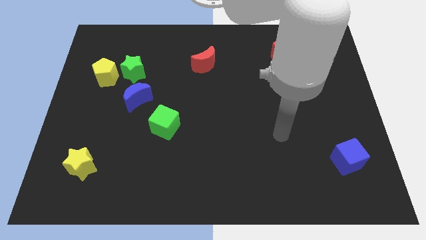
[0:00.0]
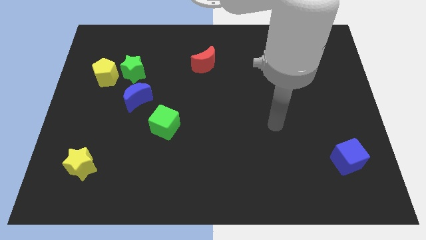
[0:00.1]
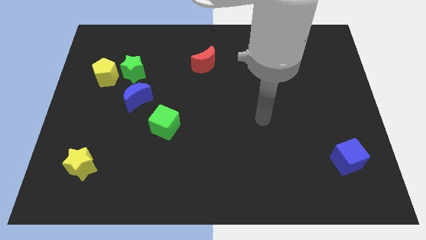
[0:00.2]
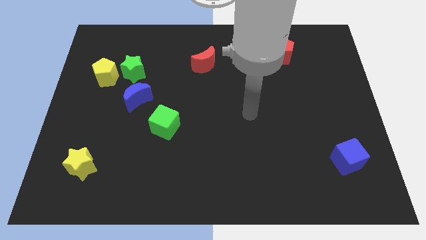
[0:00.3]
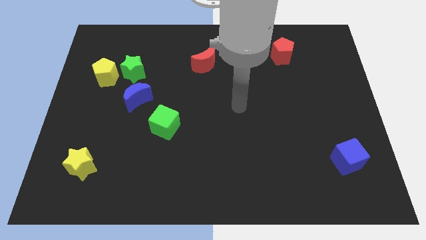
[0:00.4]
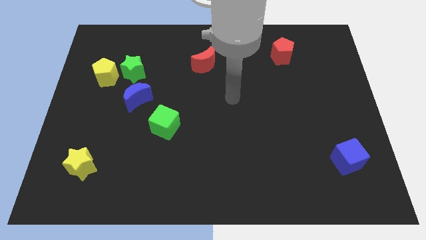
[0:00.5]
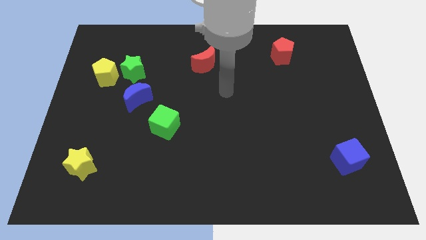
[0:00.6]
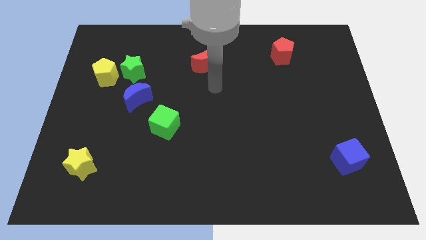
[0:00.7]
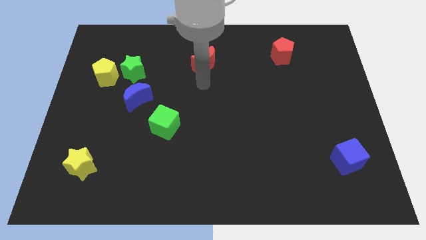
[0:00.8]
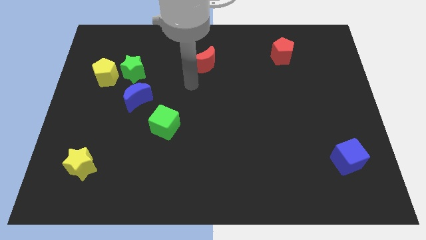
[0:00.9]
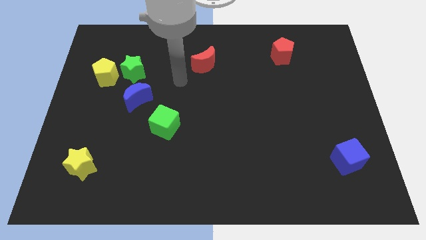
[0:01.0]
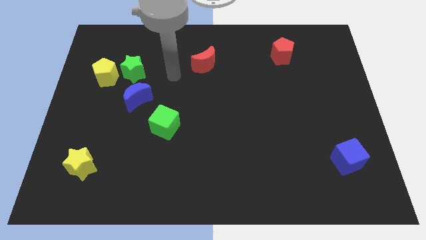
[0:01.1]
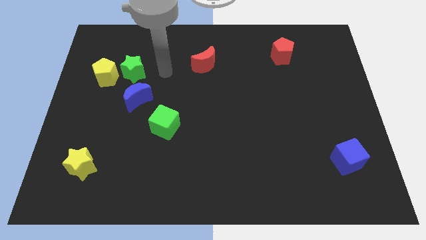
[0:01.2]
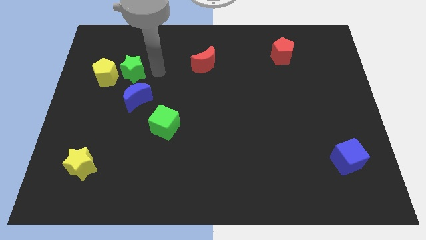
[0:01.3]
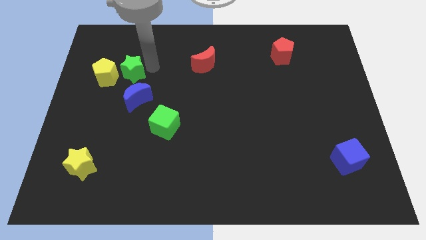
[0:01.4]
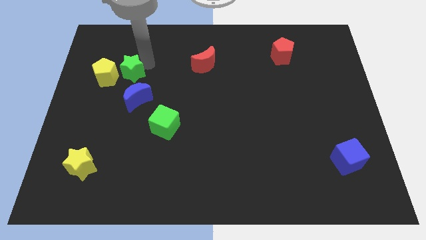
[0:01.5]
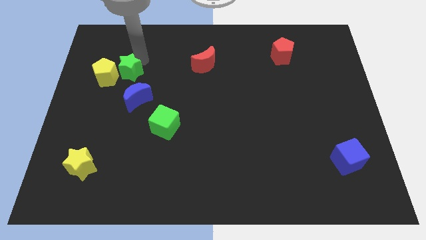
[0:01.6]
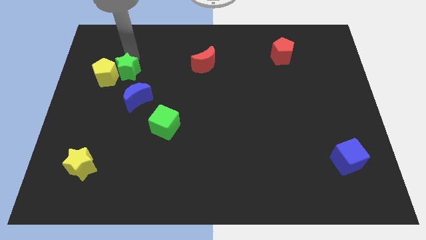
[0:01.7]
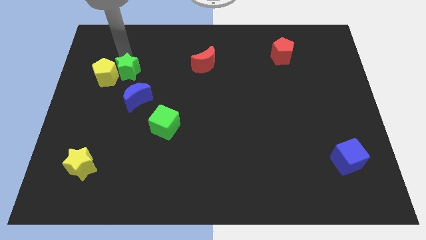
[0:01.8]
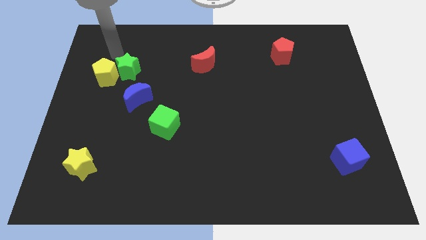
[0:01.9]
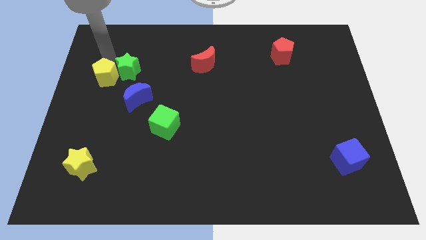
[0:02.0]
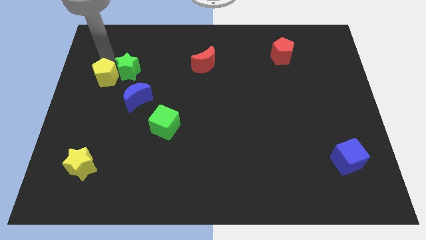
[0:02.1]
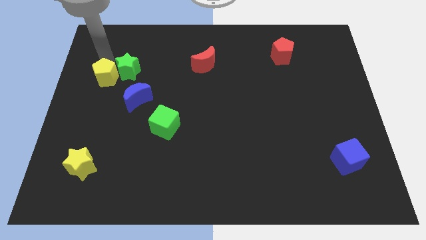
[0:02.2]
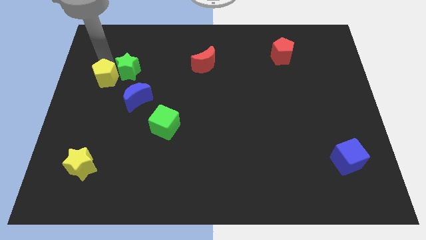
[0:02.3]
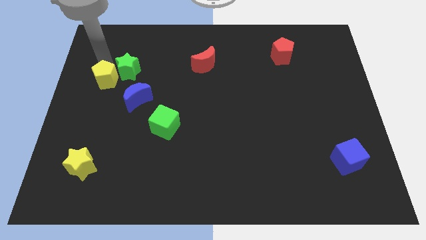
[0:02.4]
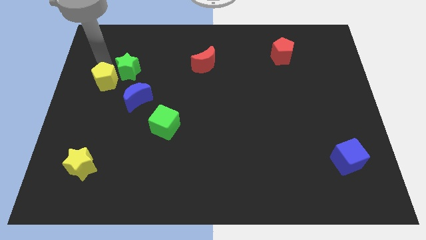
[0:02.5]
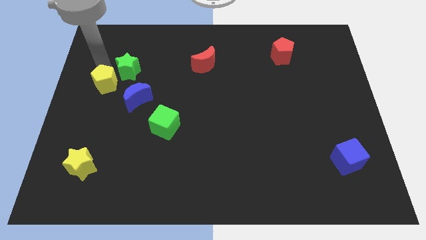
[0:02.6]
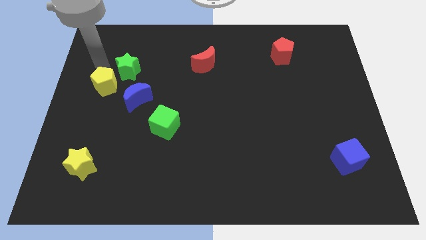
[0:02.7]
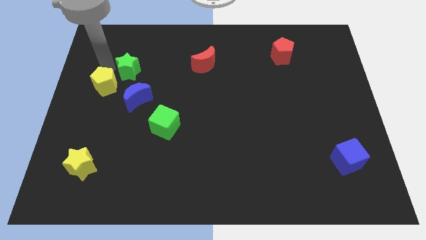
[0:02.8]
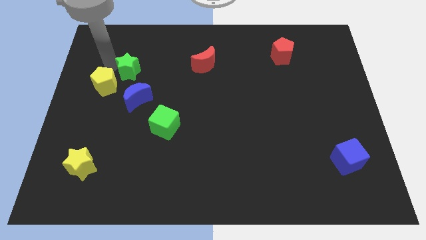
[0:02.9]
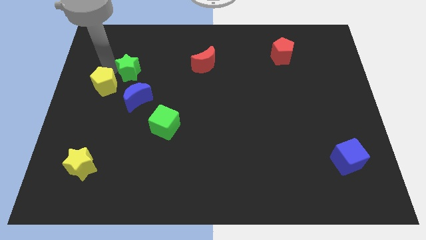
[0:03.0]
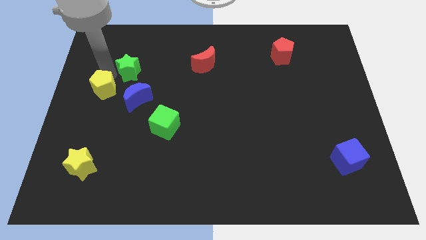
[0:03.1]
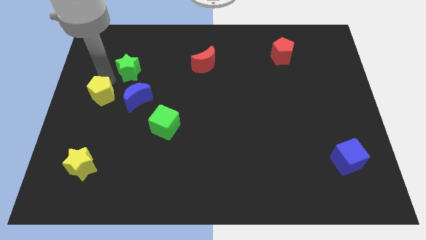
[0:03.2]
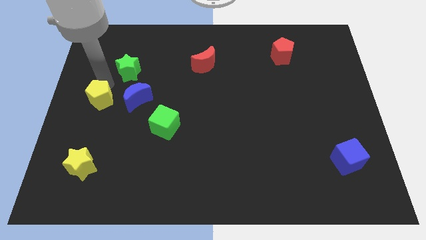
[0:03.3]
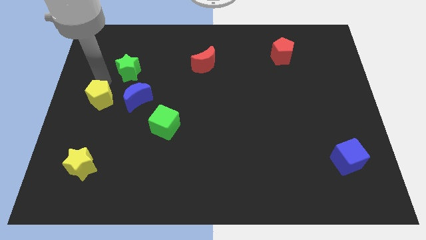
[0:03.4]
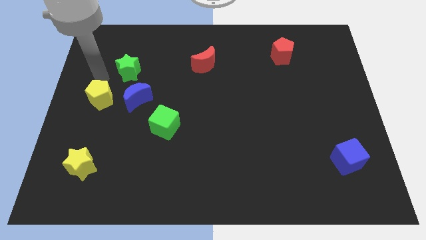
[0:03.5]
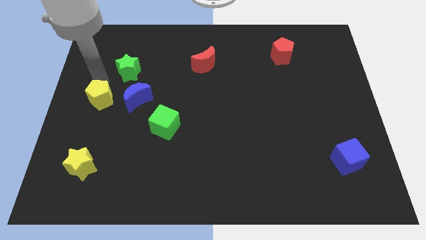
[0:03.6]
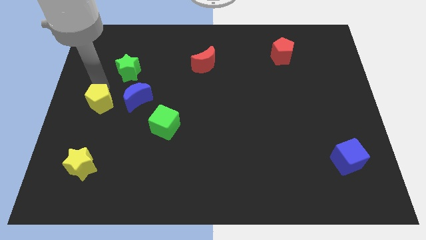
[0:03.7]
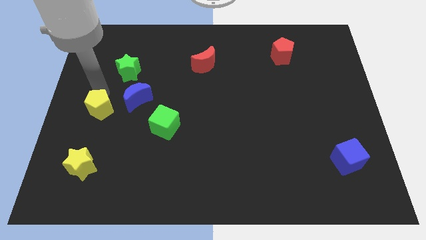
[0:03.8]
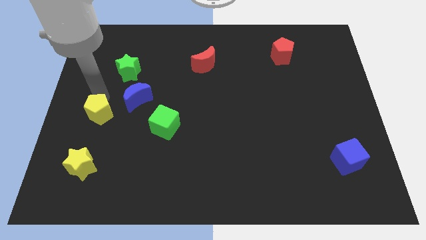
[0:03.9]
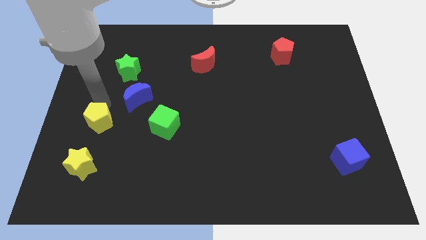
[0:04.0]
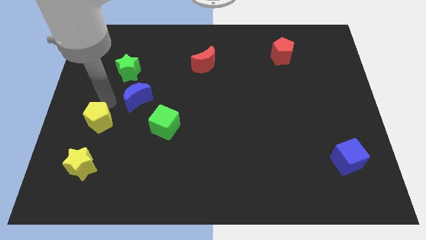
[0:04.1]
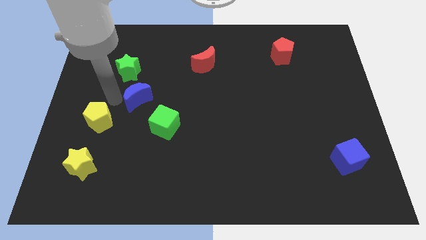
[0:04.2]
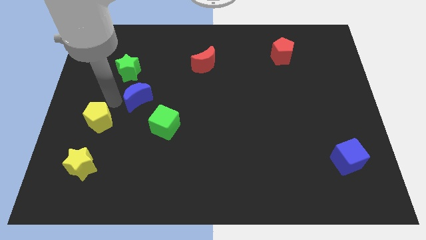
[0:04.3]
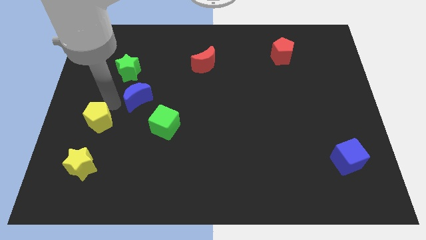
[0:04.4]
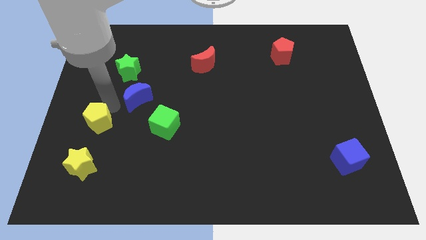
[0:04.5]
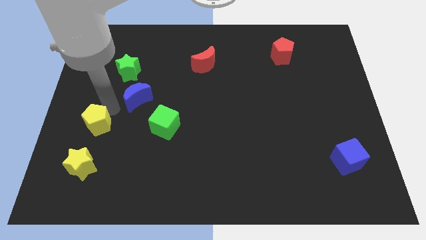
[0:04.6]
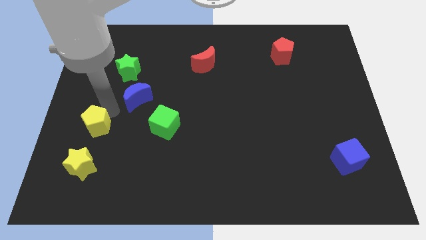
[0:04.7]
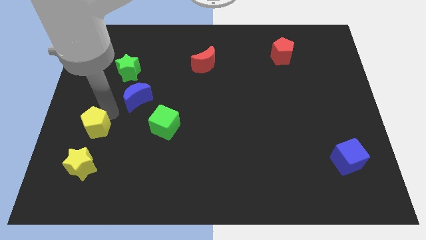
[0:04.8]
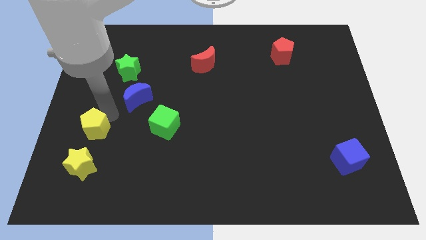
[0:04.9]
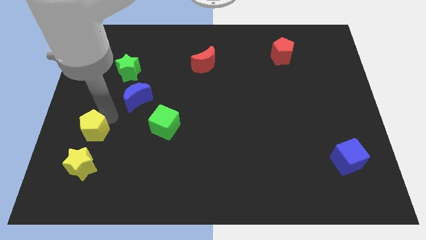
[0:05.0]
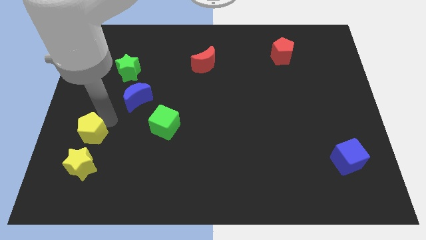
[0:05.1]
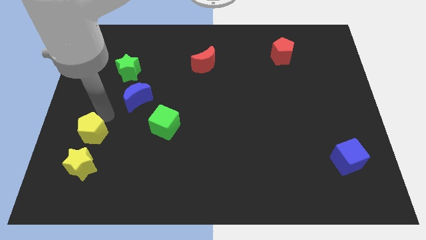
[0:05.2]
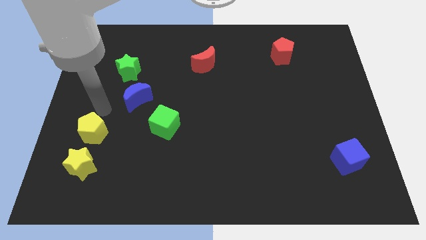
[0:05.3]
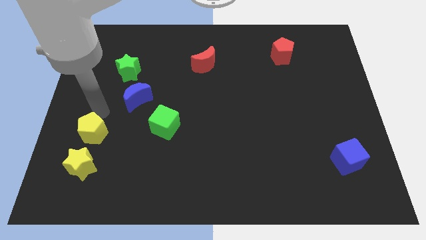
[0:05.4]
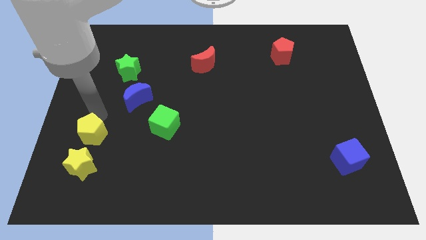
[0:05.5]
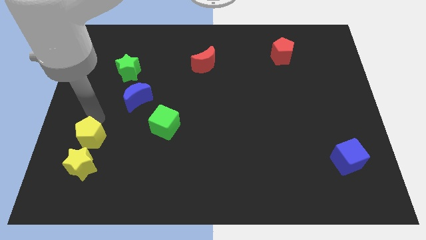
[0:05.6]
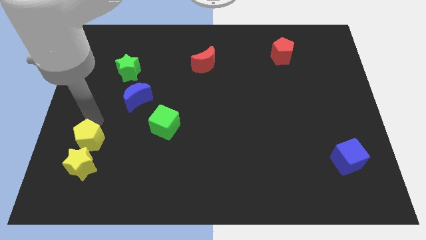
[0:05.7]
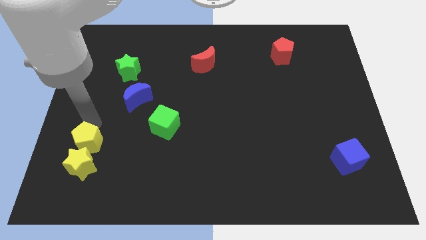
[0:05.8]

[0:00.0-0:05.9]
put the yellow pentagon to the yellow star

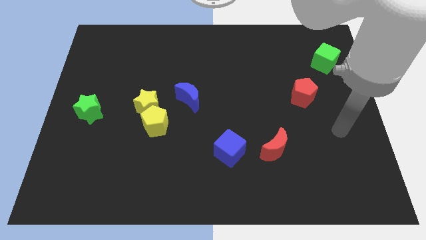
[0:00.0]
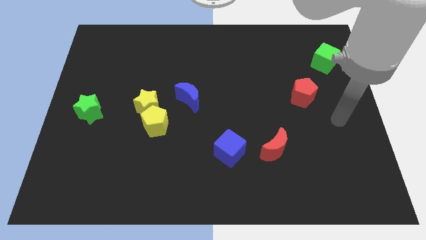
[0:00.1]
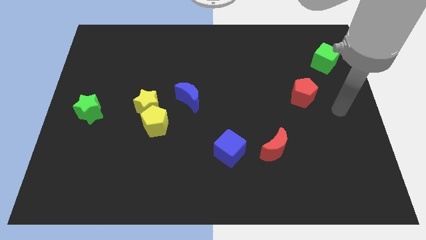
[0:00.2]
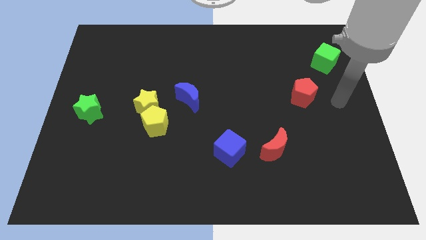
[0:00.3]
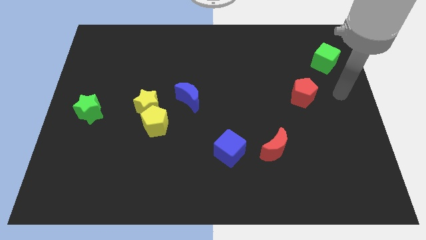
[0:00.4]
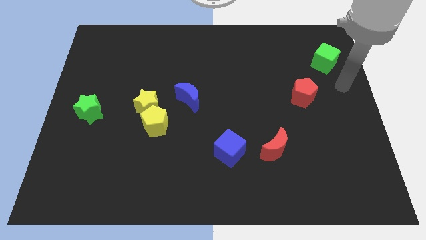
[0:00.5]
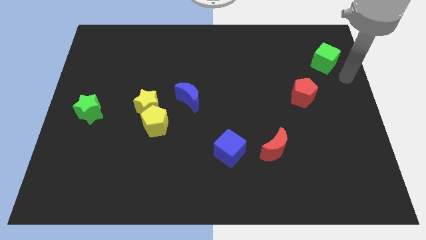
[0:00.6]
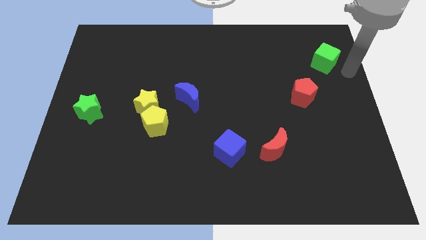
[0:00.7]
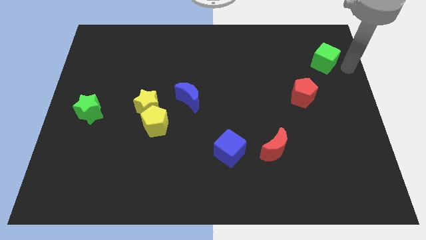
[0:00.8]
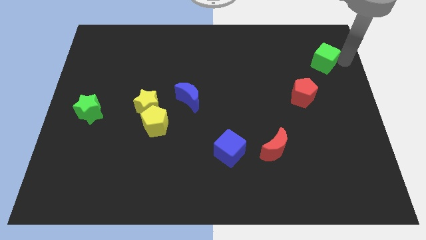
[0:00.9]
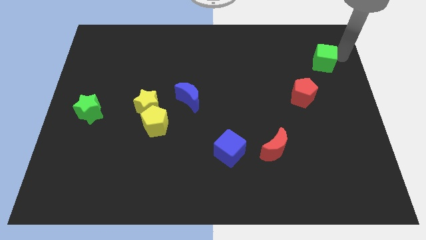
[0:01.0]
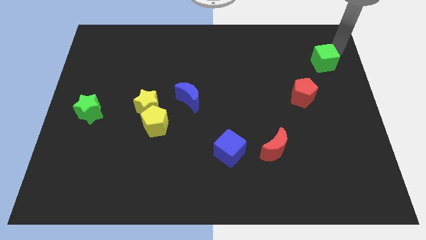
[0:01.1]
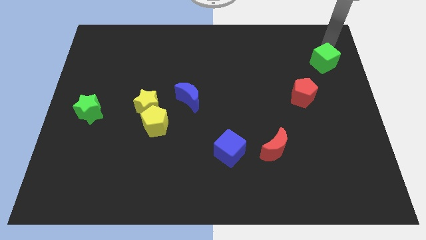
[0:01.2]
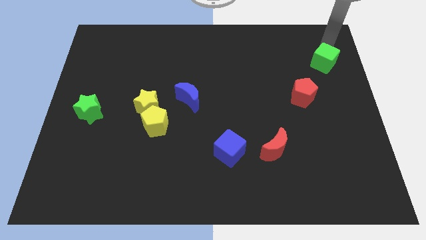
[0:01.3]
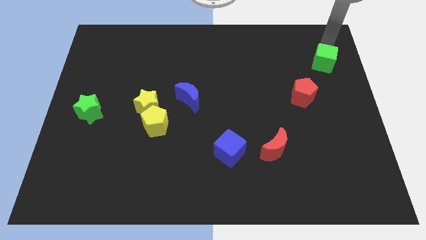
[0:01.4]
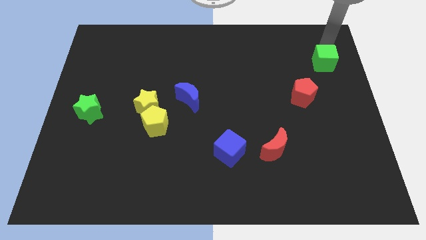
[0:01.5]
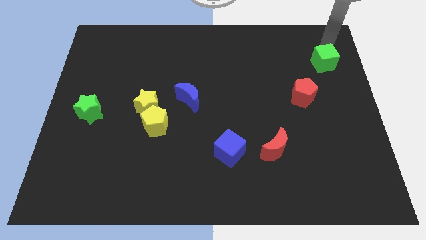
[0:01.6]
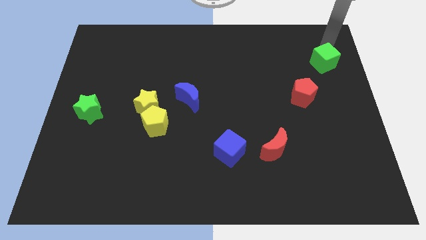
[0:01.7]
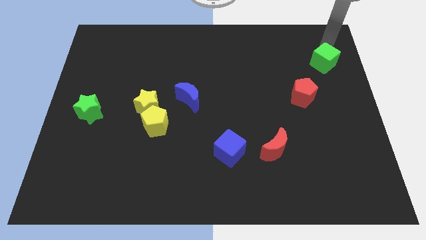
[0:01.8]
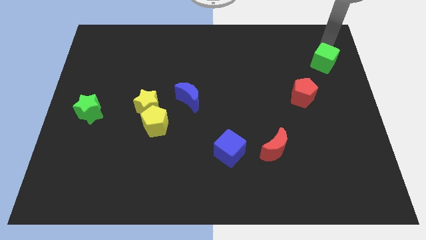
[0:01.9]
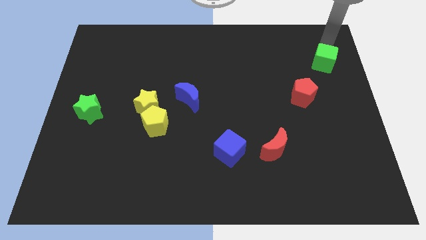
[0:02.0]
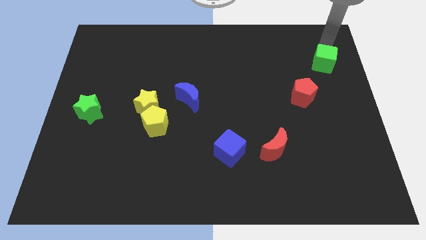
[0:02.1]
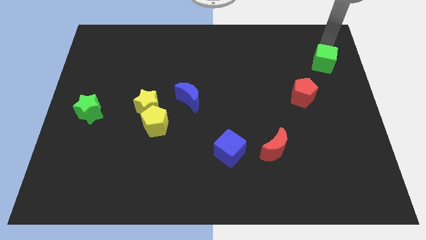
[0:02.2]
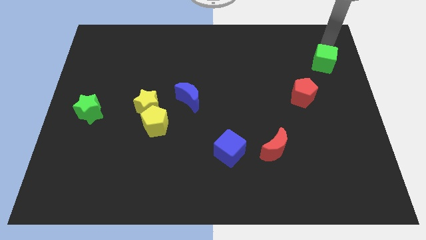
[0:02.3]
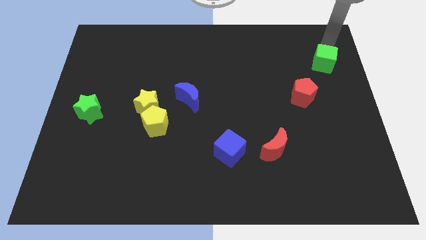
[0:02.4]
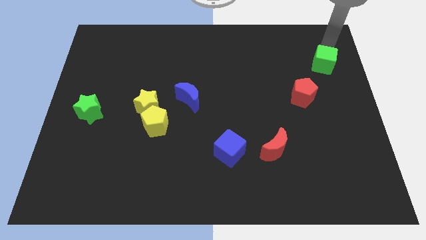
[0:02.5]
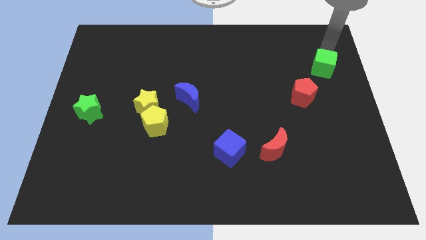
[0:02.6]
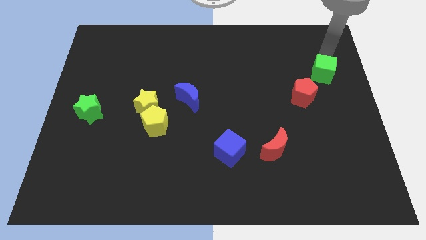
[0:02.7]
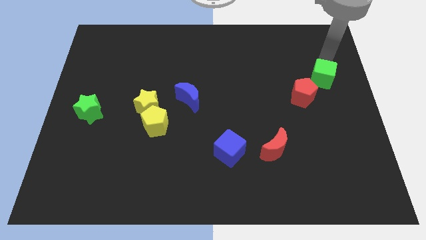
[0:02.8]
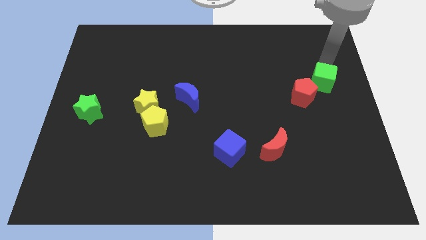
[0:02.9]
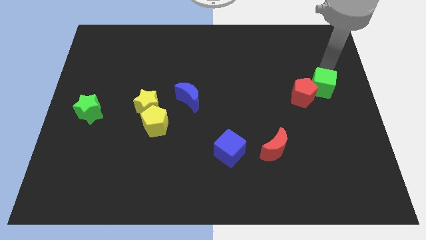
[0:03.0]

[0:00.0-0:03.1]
put the green cube next to the red pentagon
